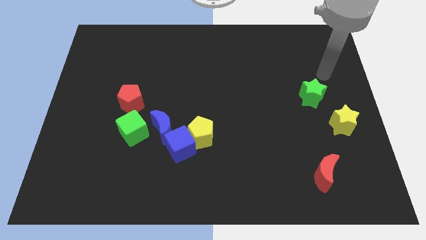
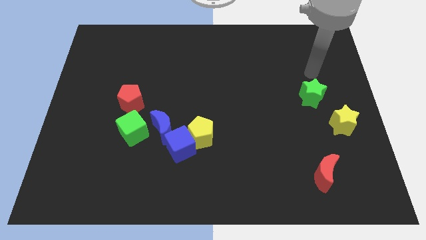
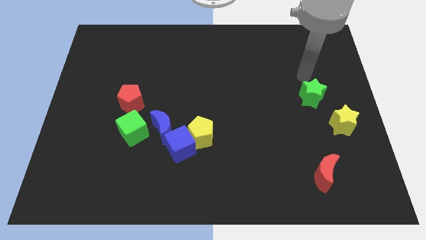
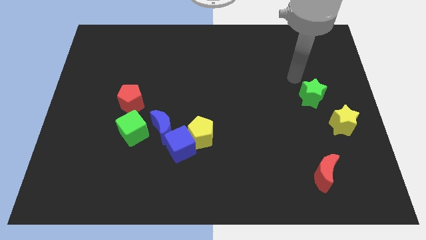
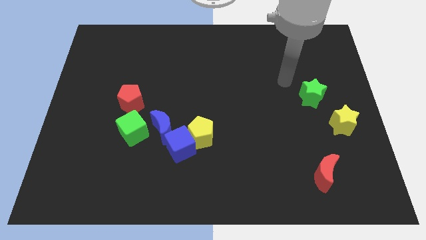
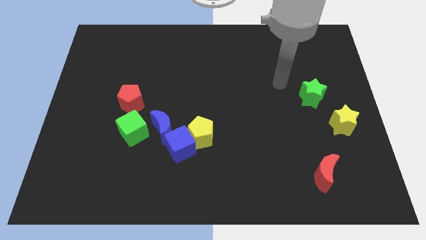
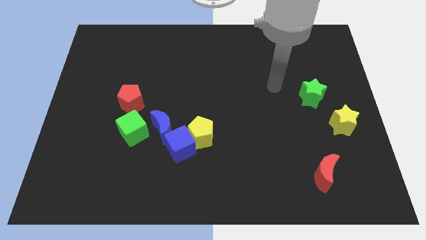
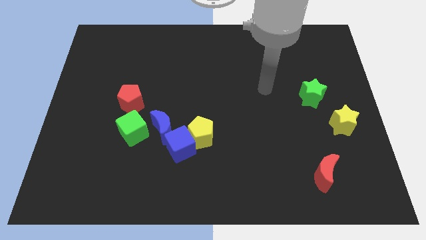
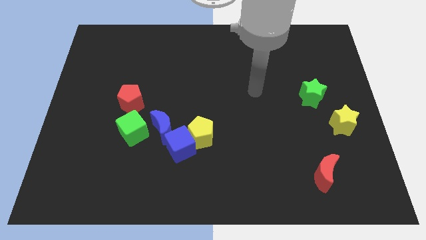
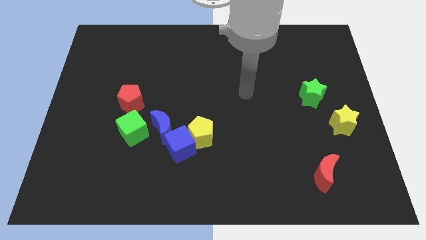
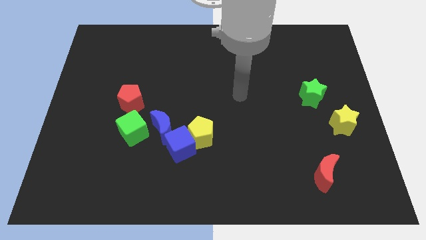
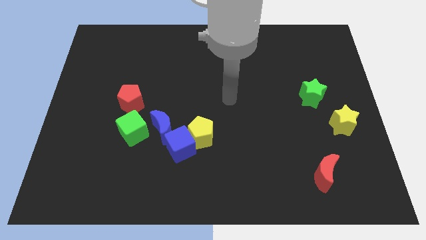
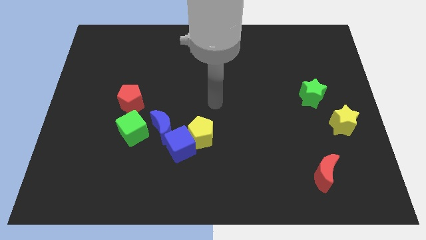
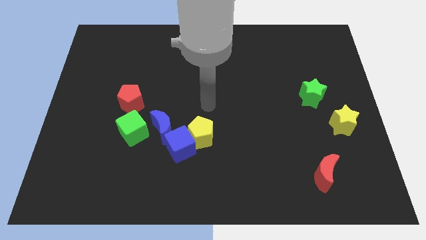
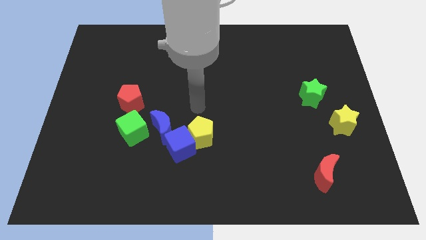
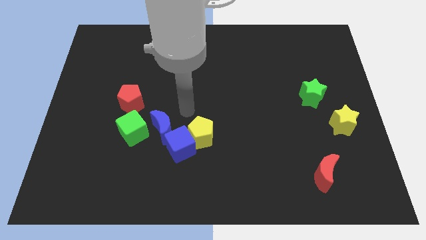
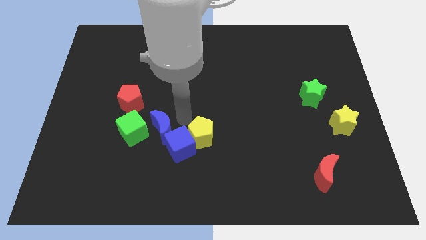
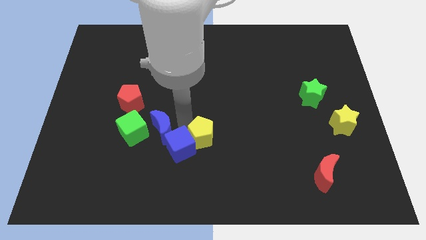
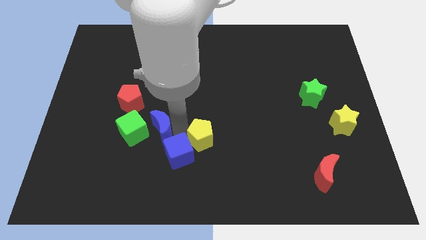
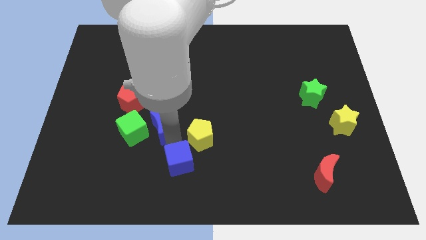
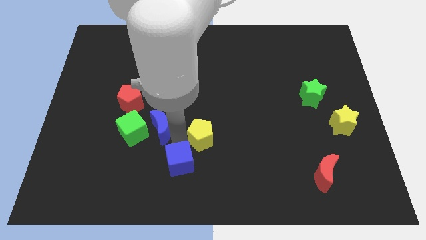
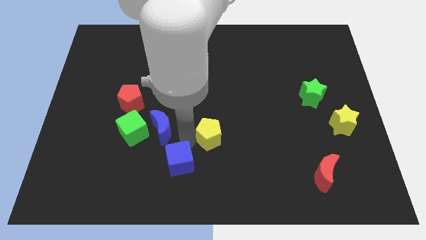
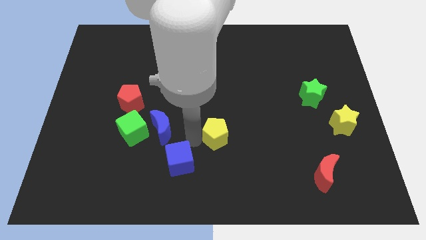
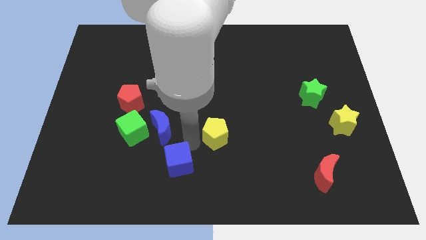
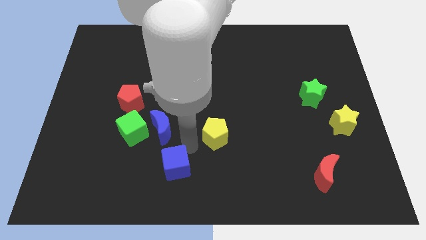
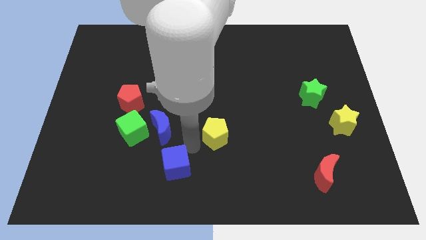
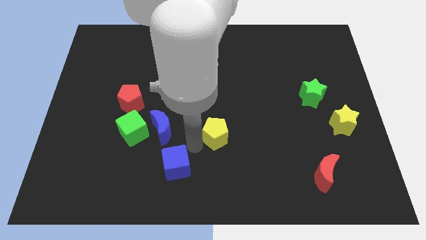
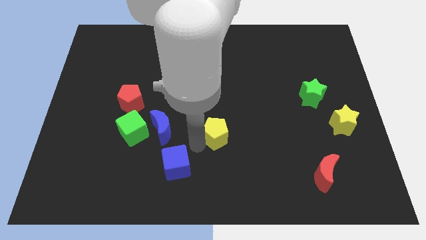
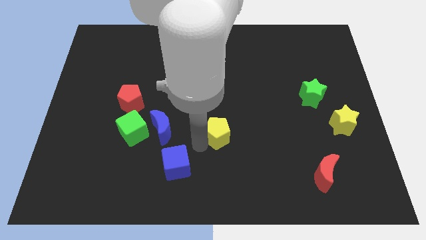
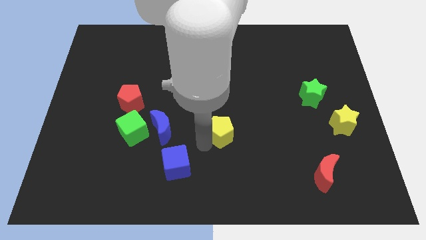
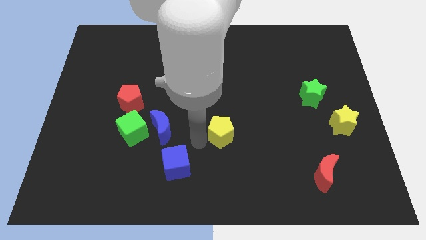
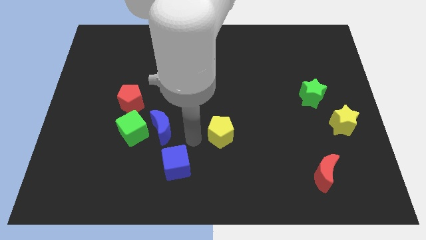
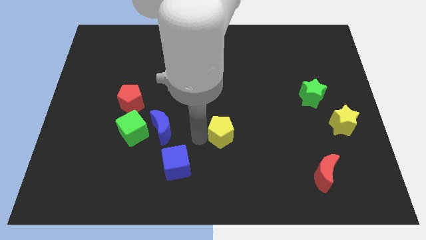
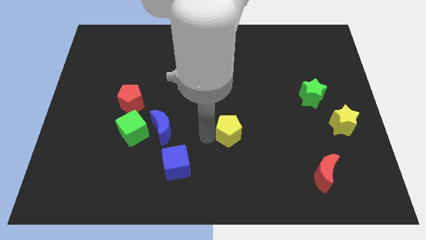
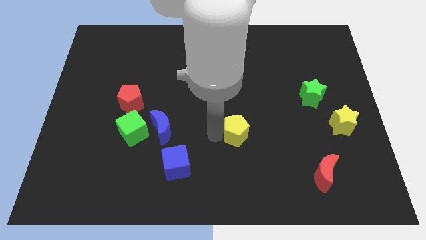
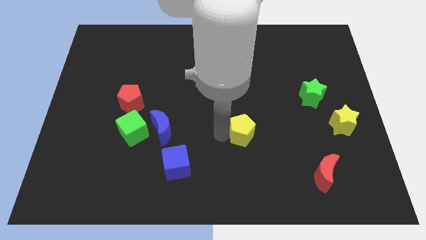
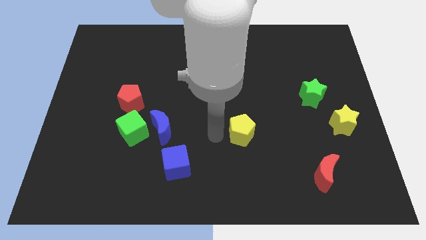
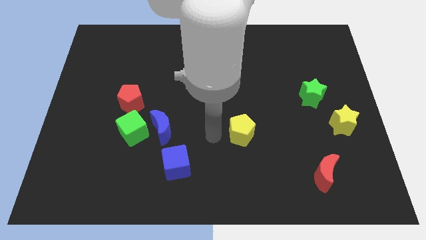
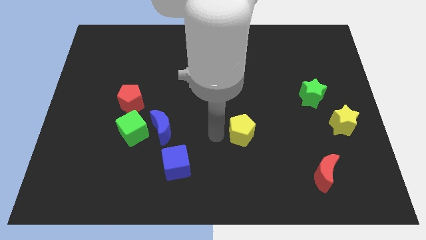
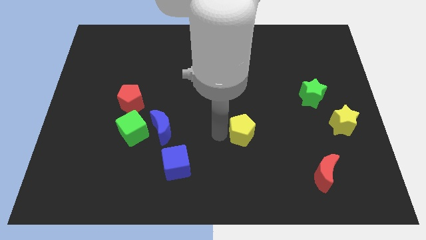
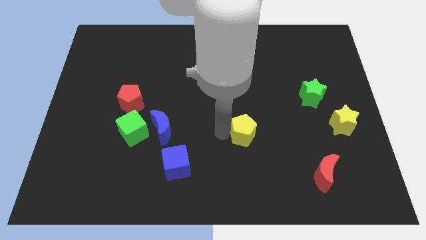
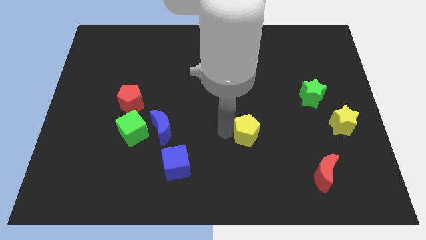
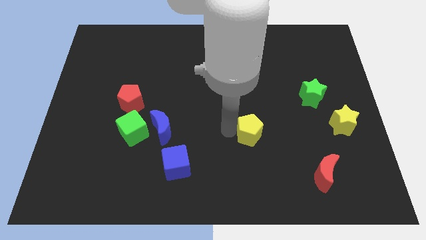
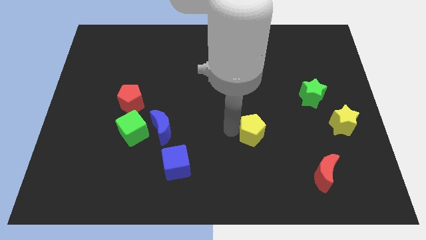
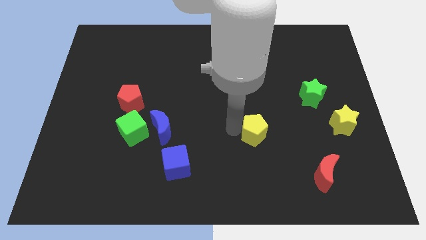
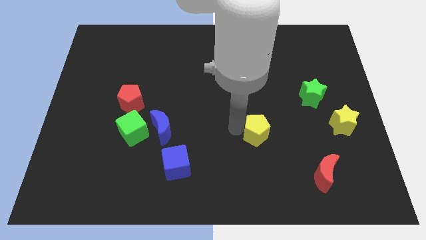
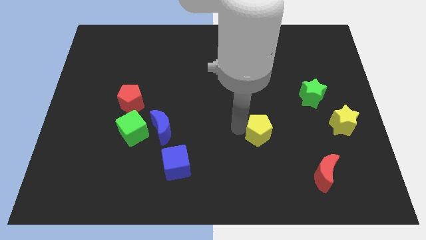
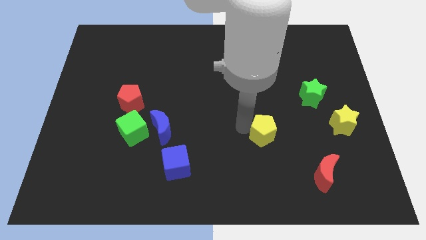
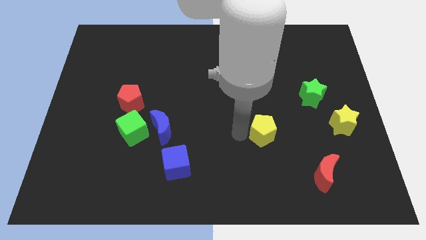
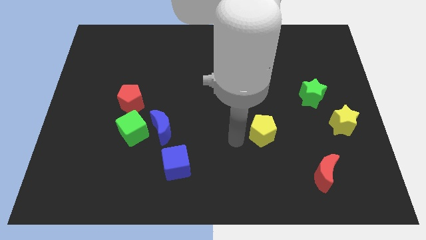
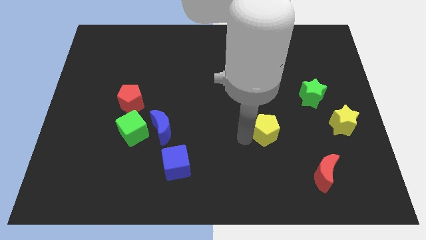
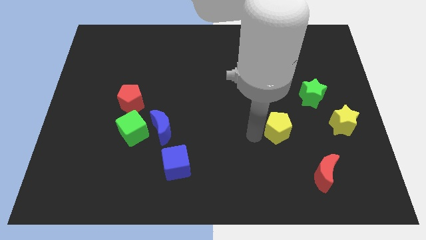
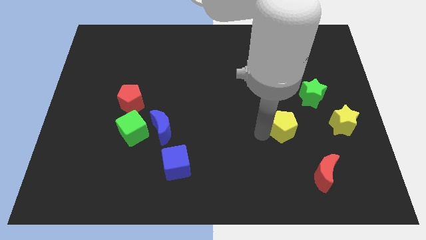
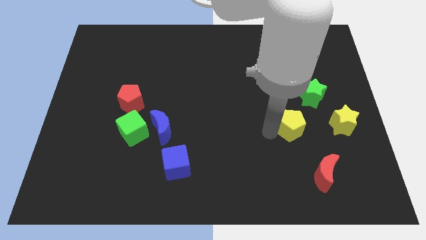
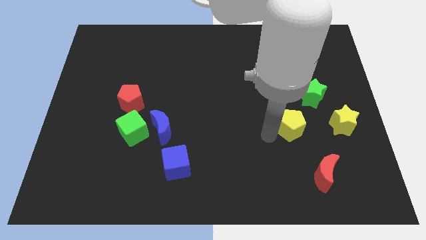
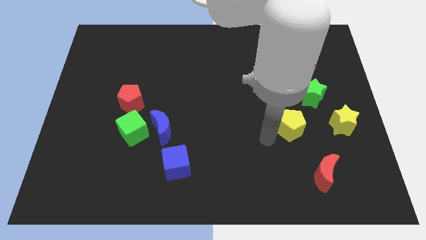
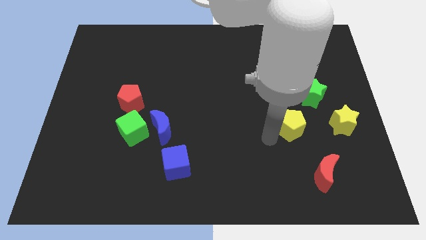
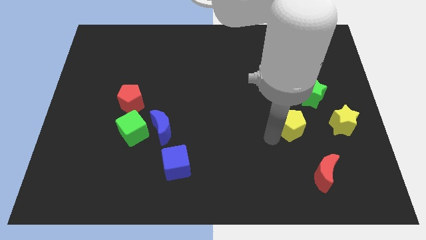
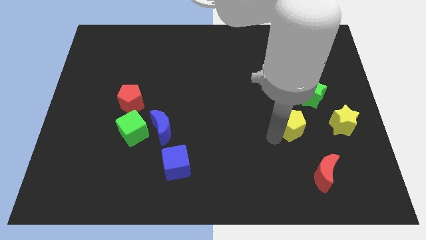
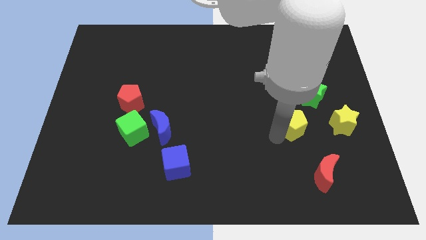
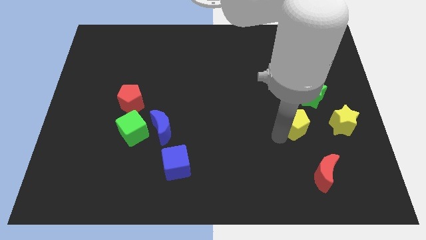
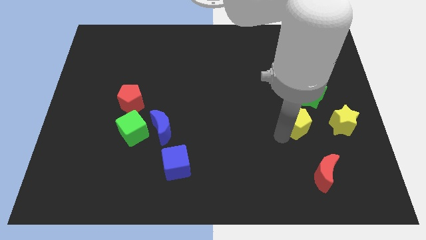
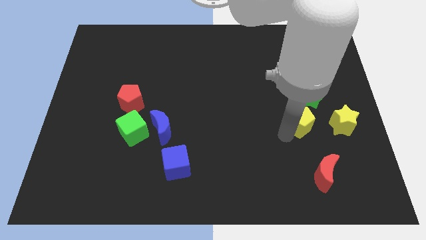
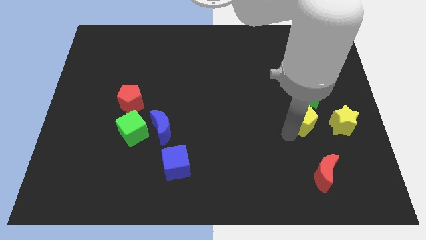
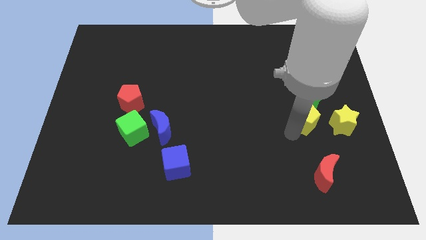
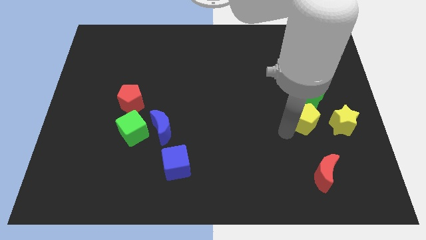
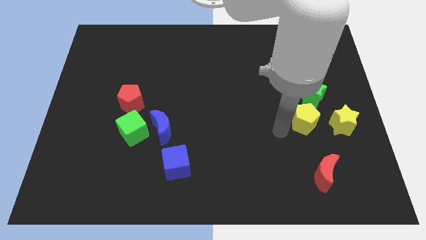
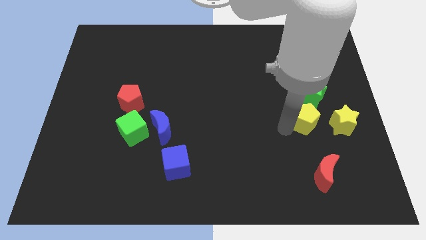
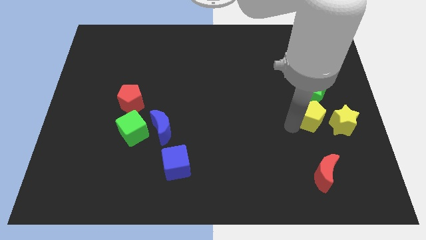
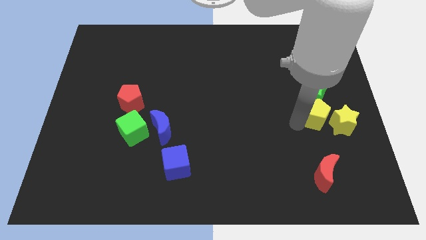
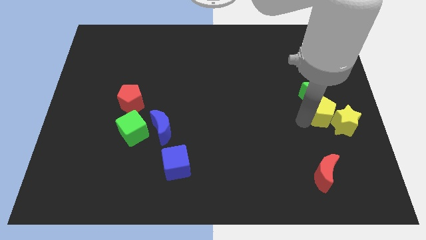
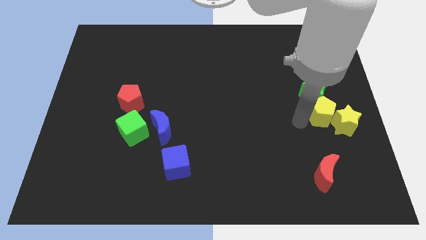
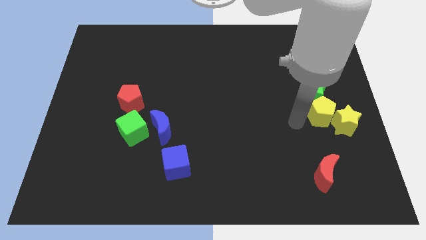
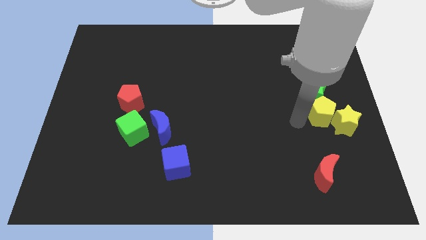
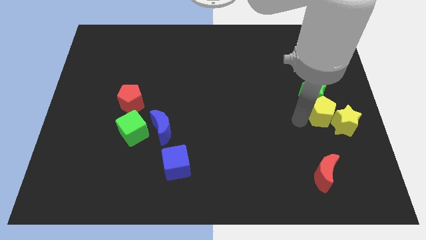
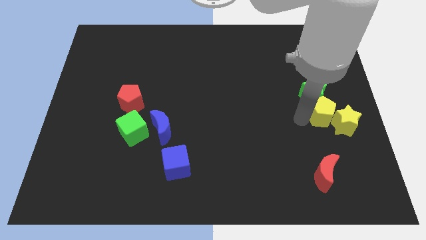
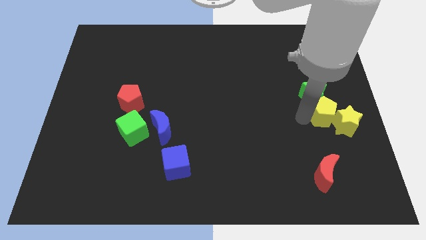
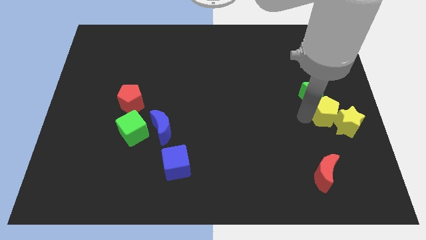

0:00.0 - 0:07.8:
push the yellow pentagon to the center right
